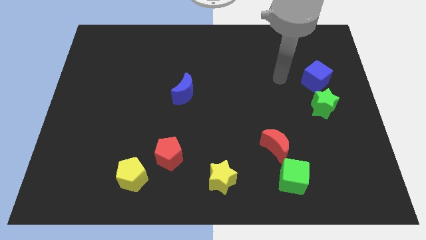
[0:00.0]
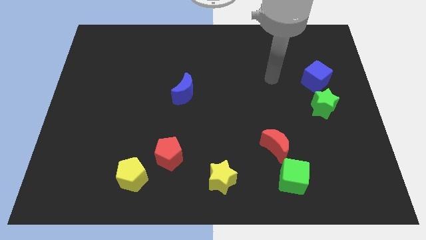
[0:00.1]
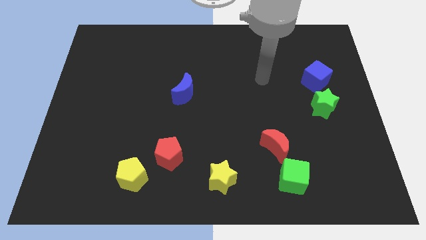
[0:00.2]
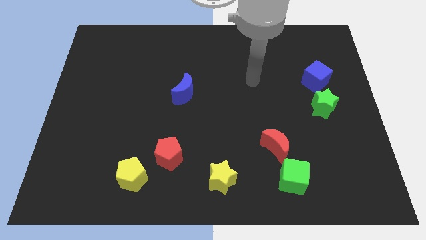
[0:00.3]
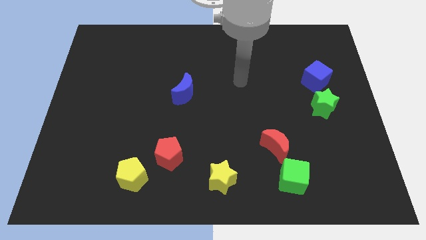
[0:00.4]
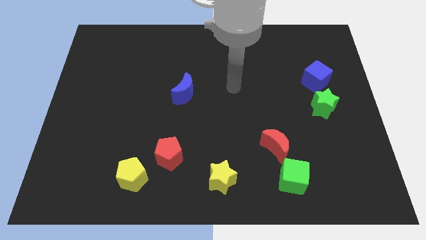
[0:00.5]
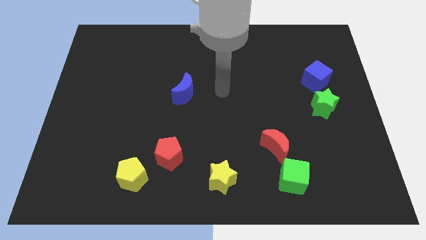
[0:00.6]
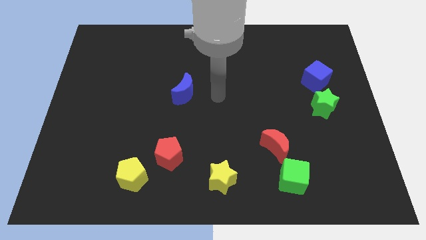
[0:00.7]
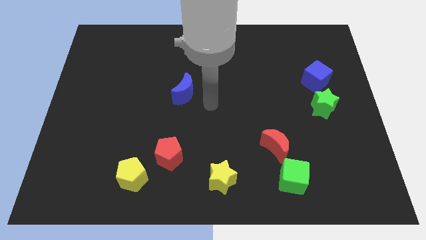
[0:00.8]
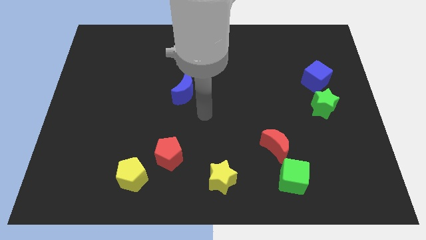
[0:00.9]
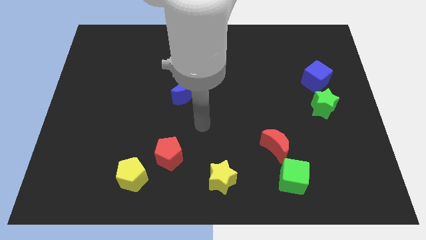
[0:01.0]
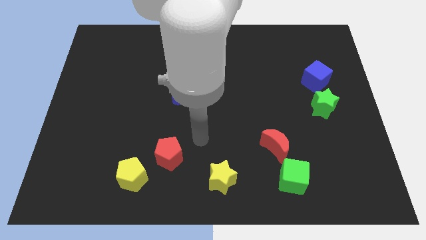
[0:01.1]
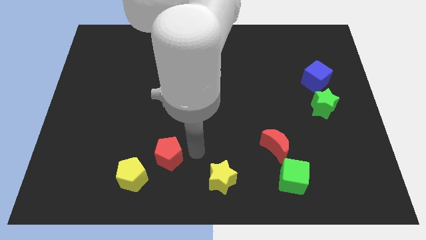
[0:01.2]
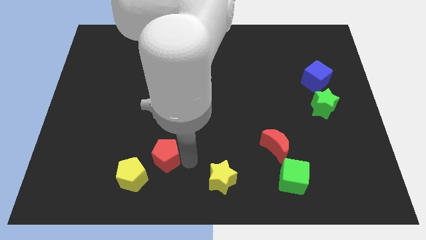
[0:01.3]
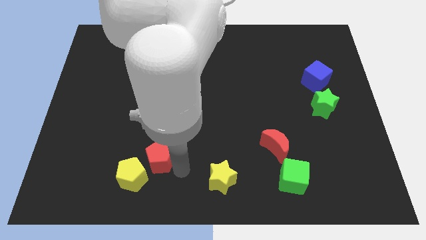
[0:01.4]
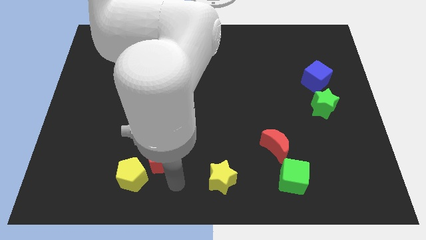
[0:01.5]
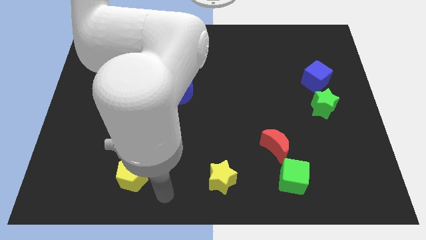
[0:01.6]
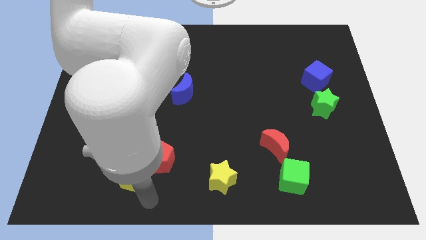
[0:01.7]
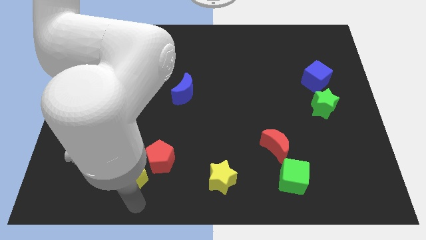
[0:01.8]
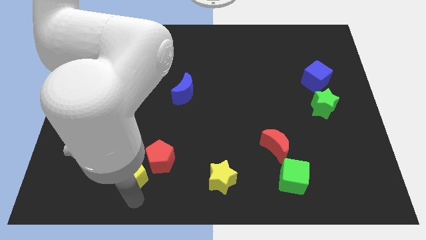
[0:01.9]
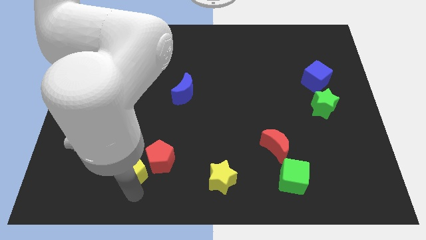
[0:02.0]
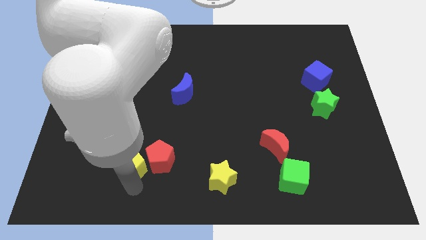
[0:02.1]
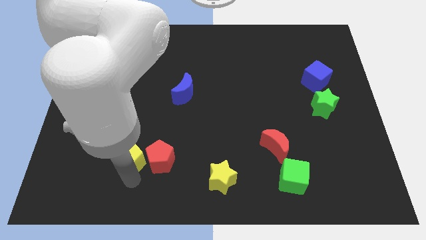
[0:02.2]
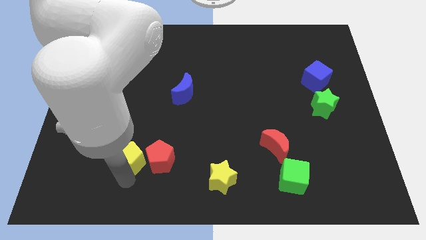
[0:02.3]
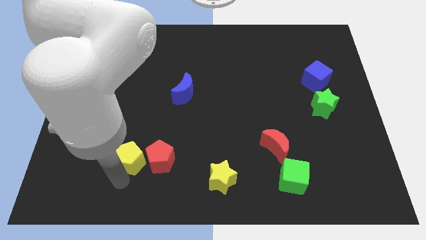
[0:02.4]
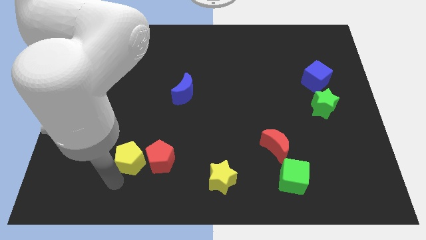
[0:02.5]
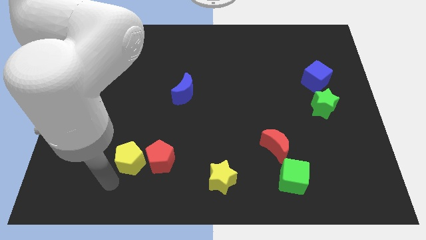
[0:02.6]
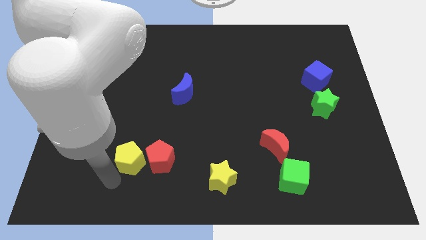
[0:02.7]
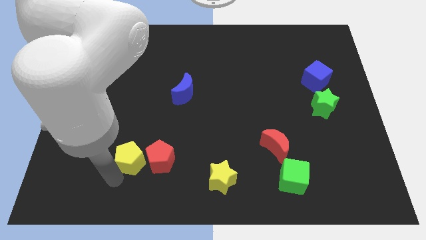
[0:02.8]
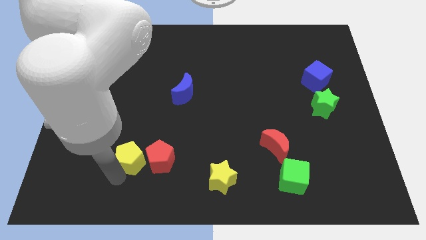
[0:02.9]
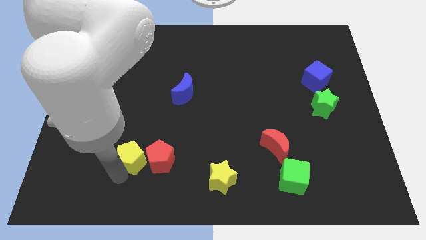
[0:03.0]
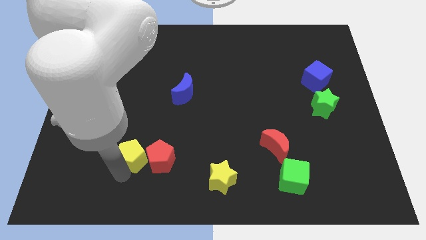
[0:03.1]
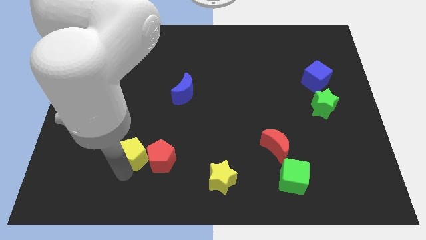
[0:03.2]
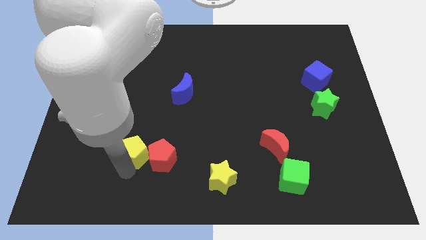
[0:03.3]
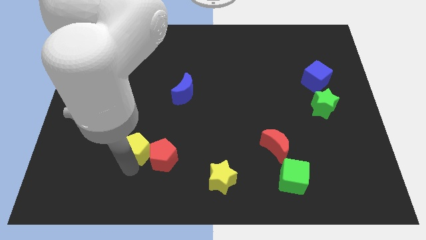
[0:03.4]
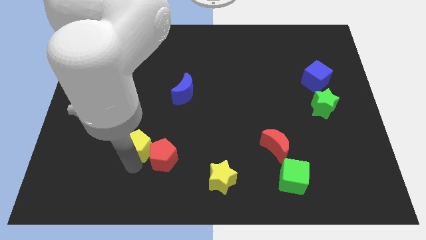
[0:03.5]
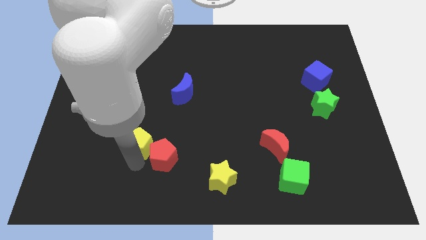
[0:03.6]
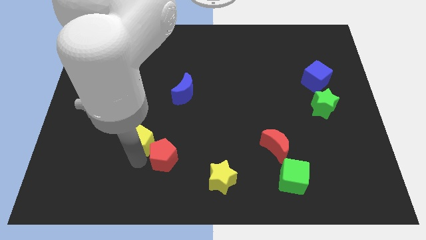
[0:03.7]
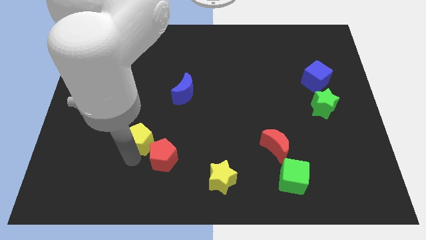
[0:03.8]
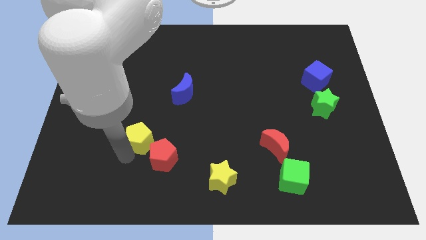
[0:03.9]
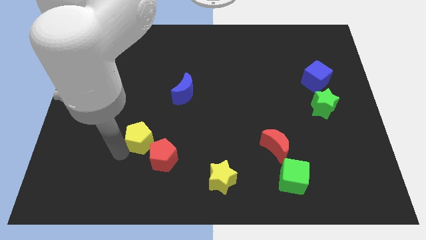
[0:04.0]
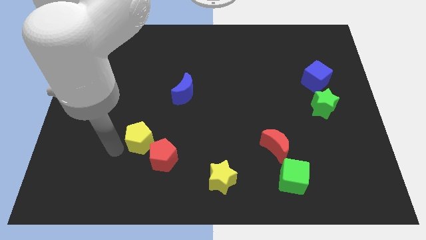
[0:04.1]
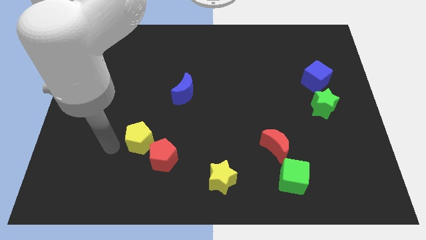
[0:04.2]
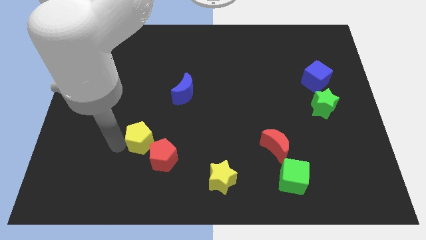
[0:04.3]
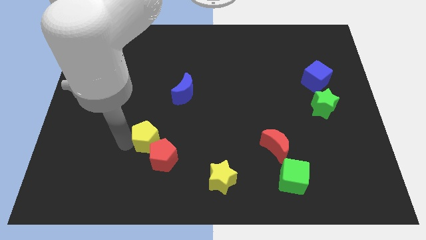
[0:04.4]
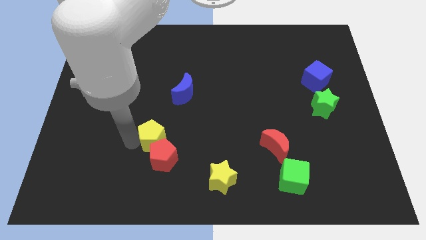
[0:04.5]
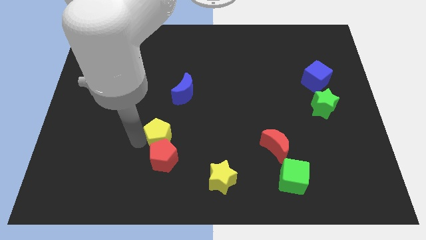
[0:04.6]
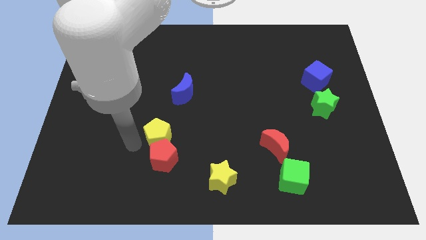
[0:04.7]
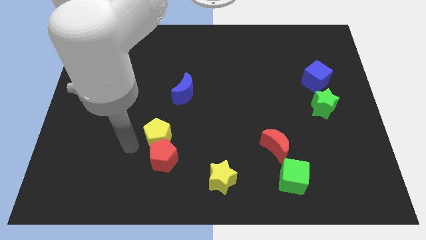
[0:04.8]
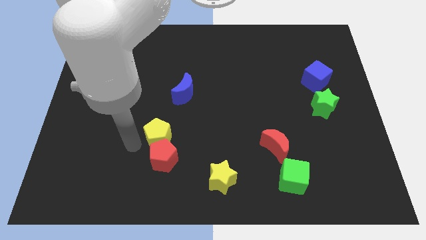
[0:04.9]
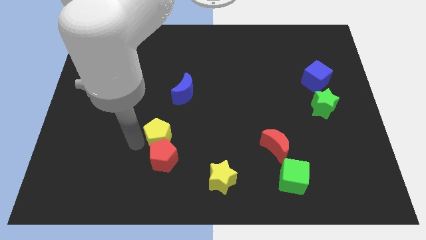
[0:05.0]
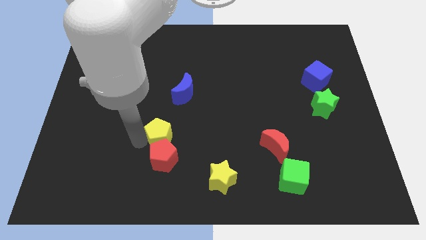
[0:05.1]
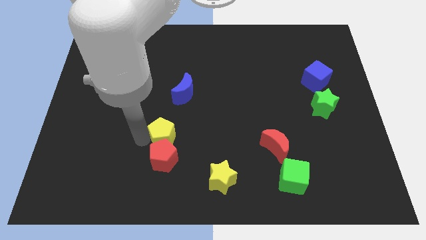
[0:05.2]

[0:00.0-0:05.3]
move the yellow pentagon to the bottom side of the blue moon

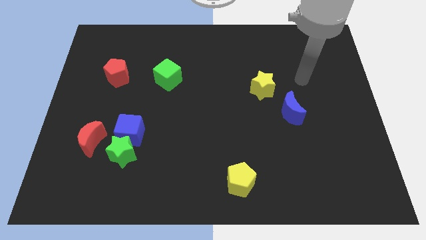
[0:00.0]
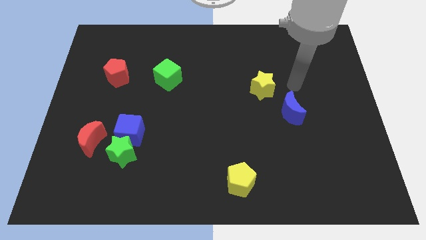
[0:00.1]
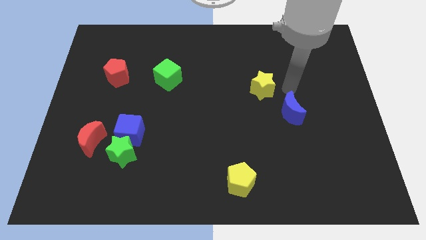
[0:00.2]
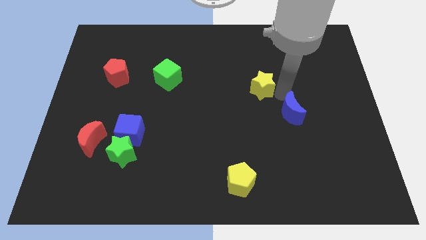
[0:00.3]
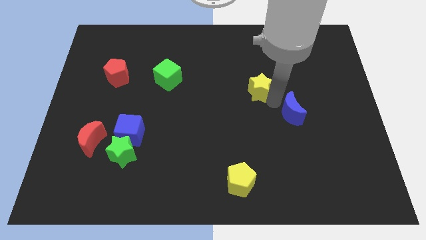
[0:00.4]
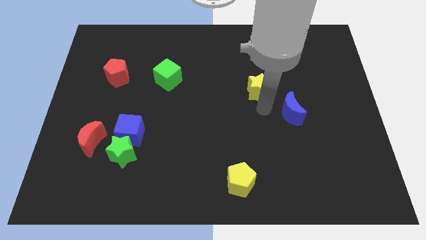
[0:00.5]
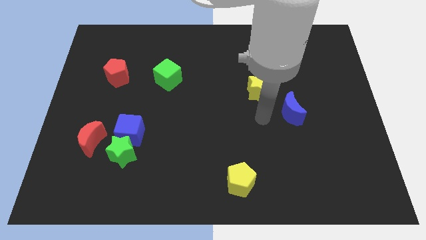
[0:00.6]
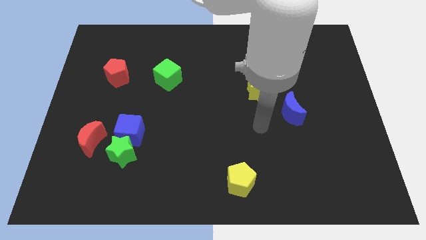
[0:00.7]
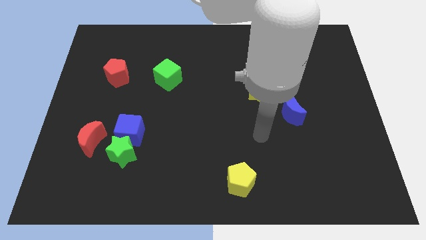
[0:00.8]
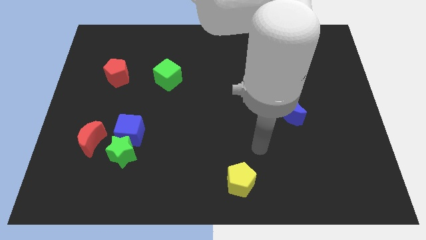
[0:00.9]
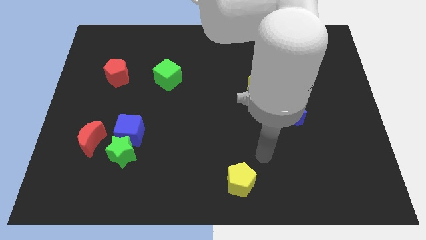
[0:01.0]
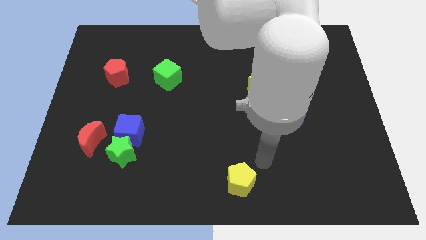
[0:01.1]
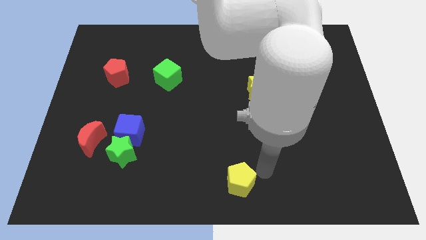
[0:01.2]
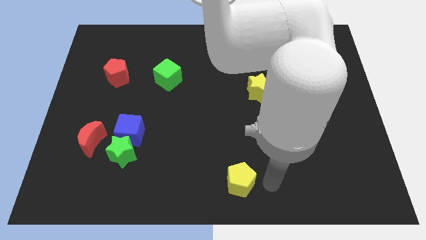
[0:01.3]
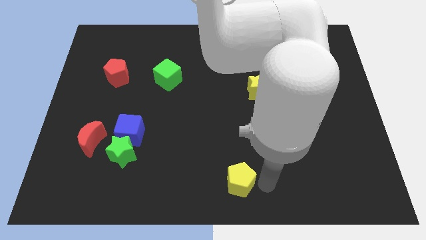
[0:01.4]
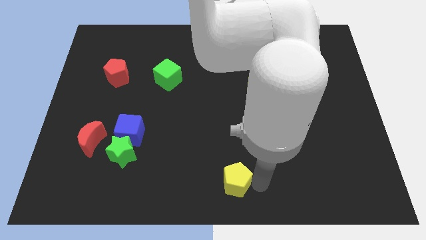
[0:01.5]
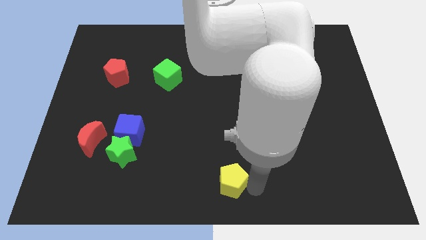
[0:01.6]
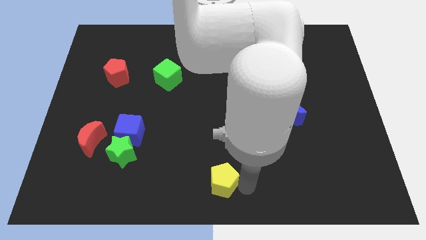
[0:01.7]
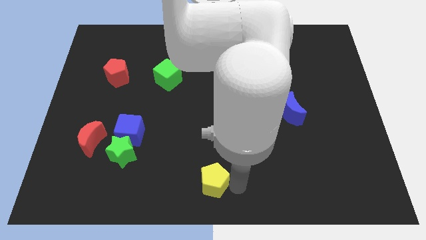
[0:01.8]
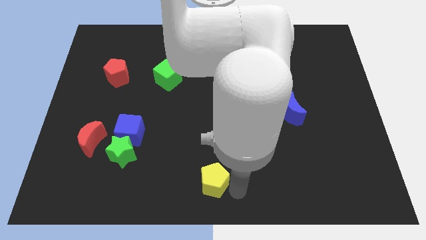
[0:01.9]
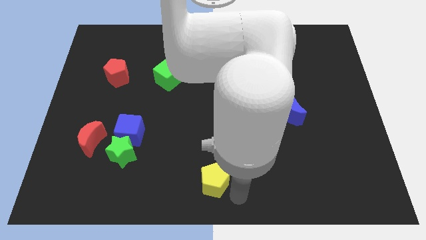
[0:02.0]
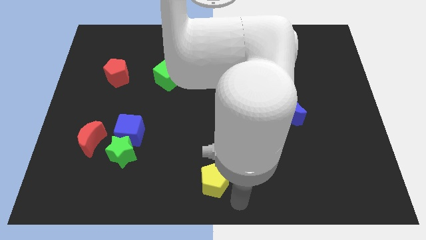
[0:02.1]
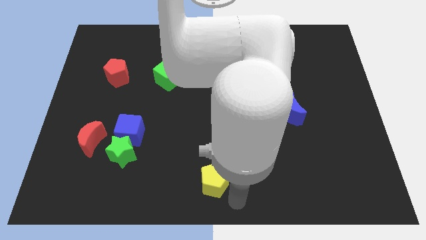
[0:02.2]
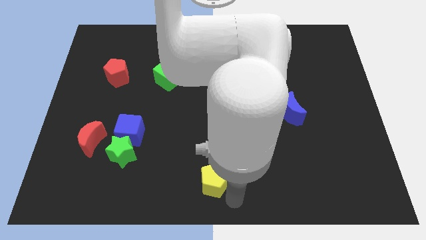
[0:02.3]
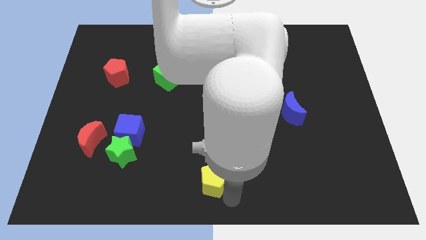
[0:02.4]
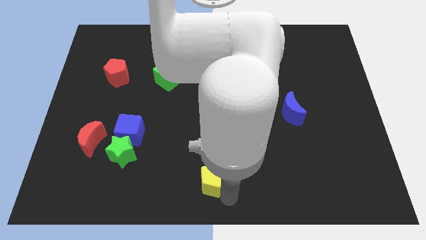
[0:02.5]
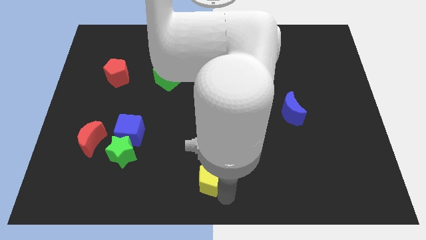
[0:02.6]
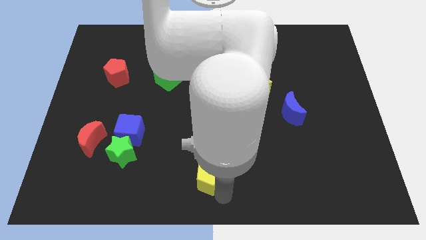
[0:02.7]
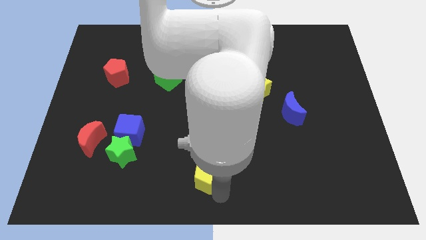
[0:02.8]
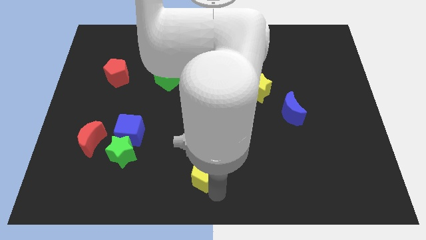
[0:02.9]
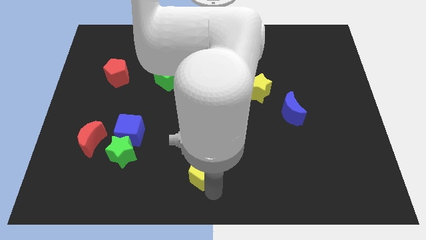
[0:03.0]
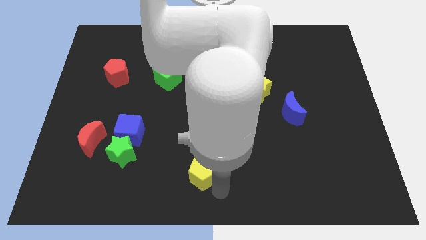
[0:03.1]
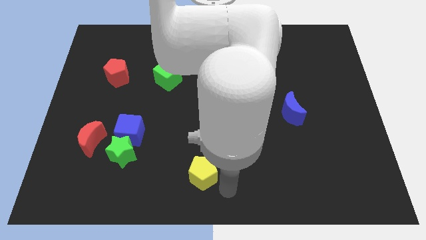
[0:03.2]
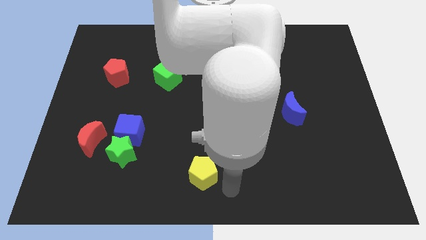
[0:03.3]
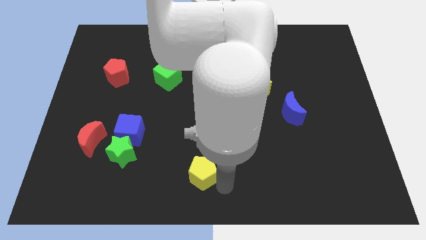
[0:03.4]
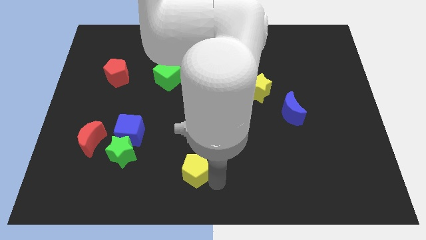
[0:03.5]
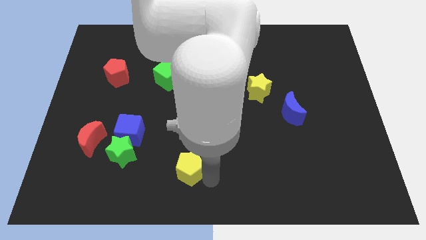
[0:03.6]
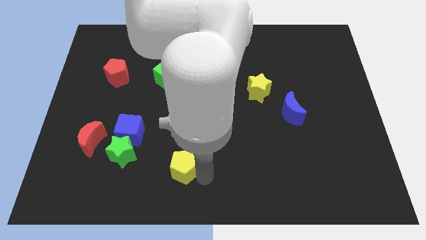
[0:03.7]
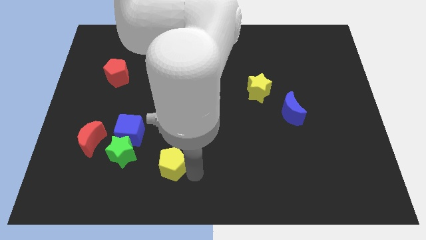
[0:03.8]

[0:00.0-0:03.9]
push the yellow pentagon to the bottom right of the blue cube
